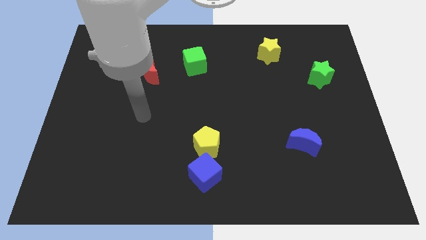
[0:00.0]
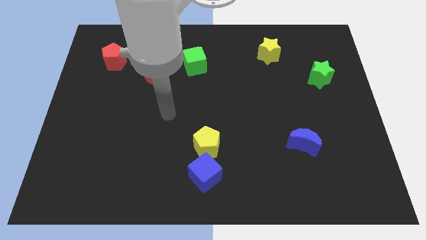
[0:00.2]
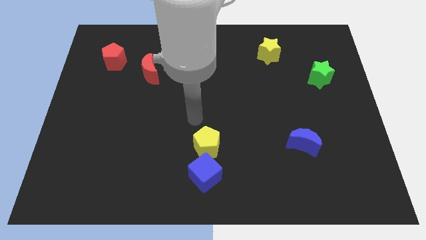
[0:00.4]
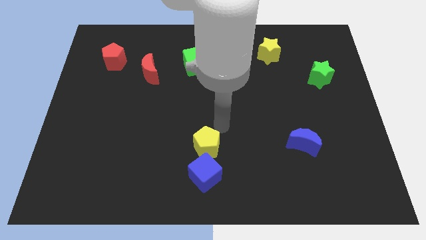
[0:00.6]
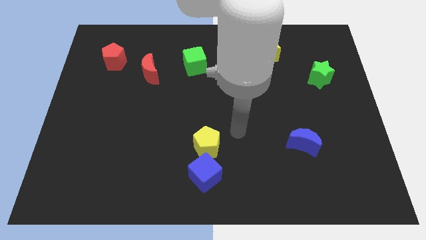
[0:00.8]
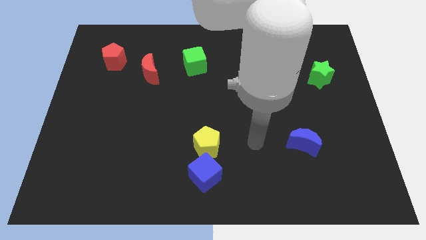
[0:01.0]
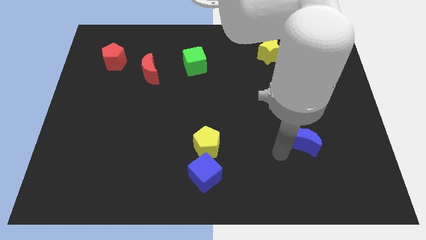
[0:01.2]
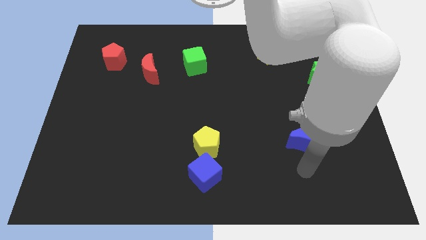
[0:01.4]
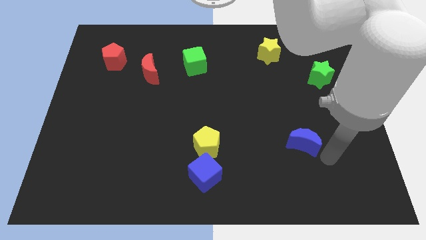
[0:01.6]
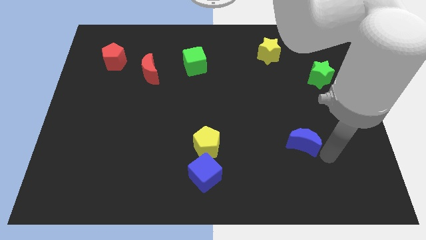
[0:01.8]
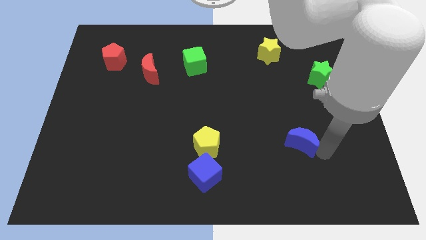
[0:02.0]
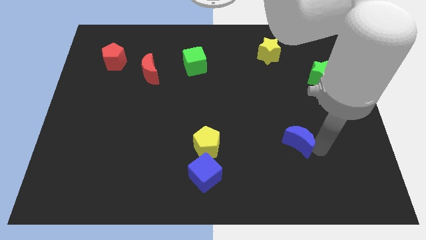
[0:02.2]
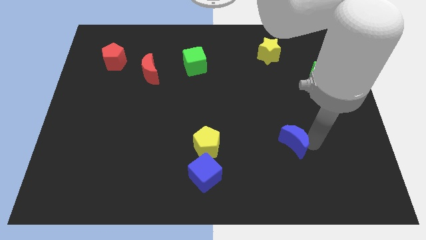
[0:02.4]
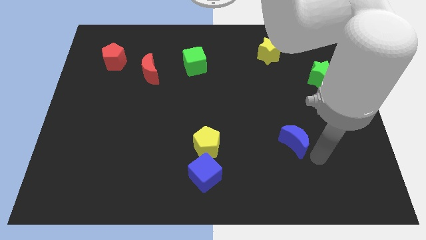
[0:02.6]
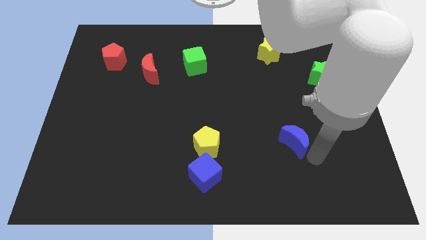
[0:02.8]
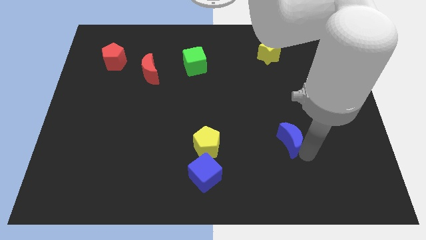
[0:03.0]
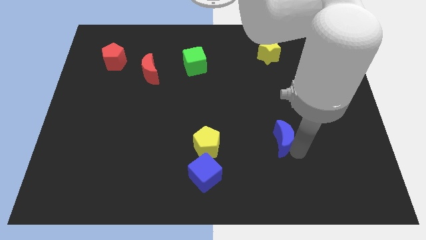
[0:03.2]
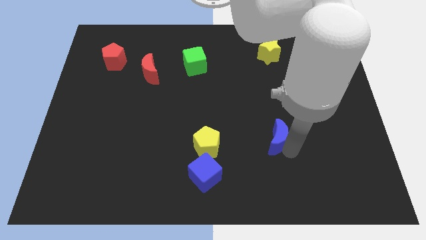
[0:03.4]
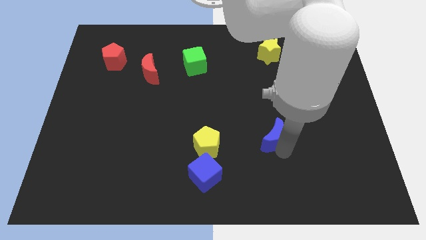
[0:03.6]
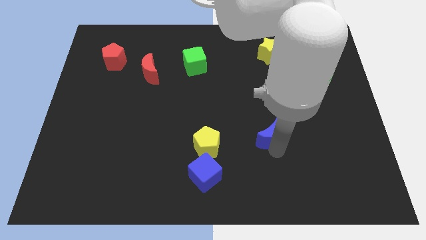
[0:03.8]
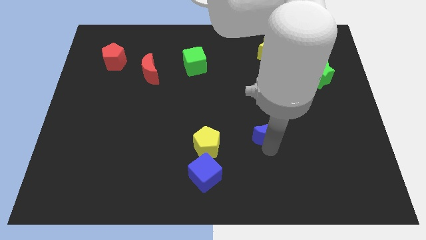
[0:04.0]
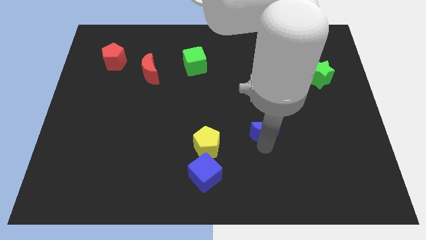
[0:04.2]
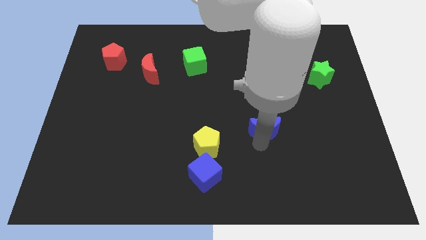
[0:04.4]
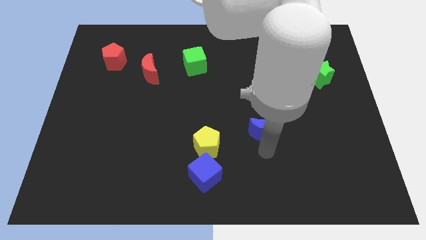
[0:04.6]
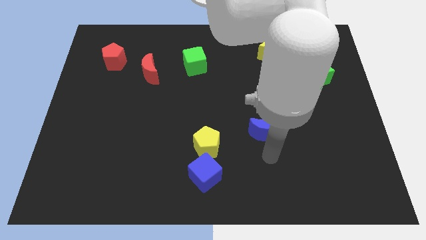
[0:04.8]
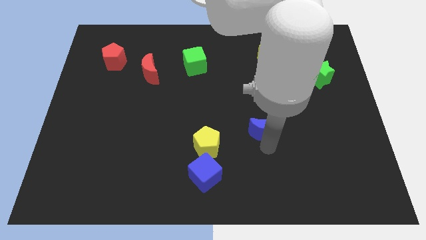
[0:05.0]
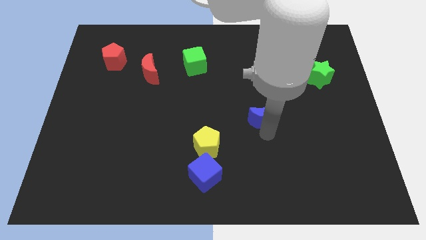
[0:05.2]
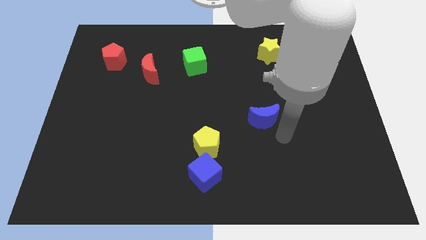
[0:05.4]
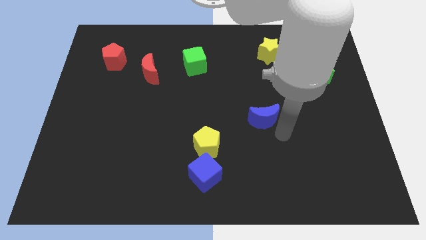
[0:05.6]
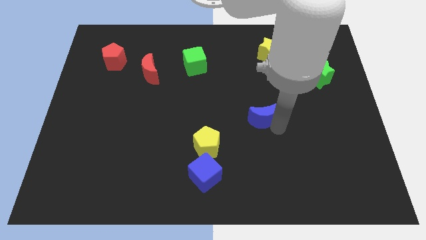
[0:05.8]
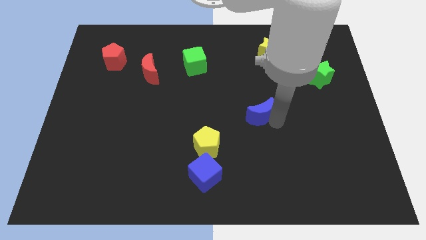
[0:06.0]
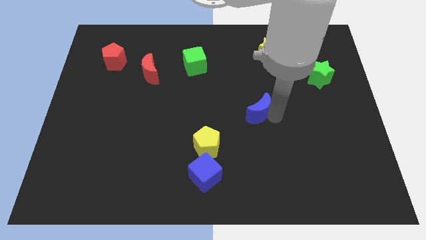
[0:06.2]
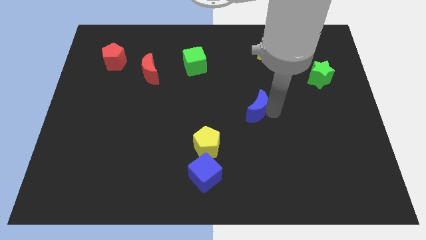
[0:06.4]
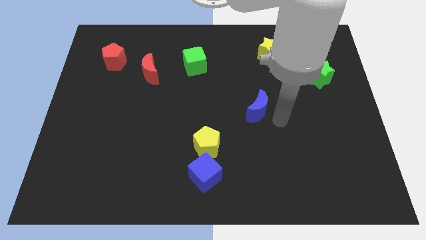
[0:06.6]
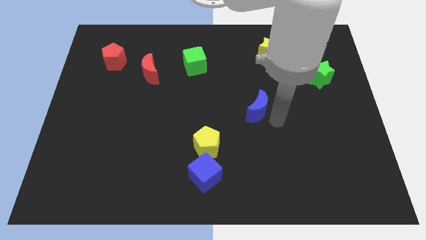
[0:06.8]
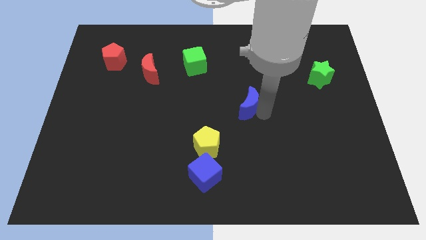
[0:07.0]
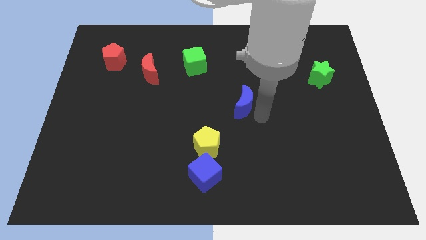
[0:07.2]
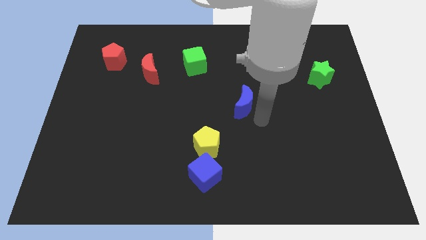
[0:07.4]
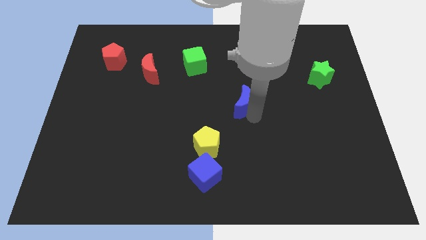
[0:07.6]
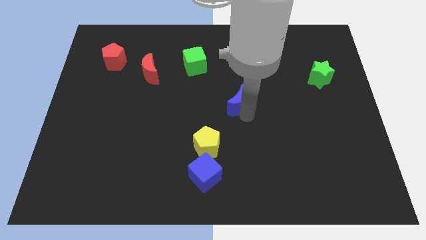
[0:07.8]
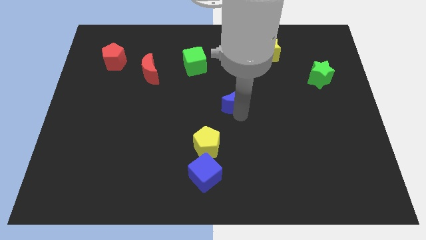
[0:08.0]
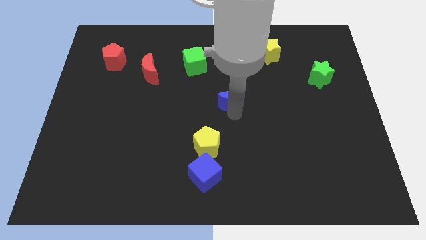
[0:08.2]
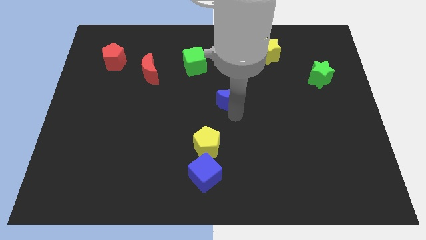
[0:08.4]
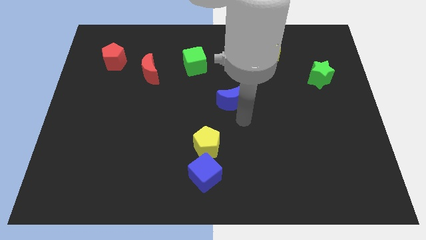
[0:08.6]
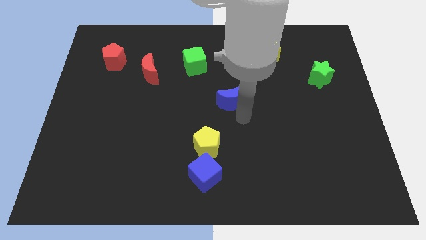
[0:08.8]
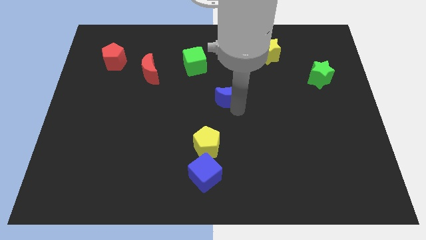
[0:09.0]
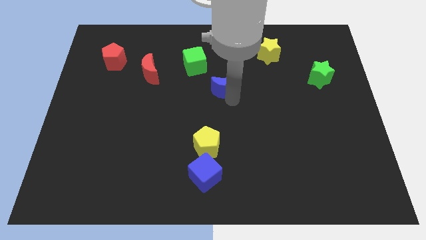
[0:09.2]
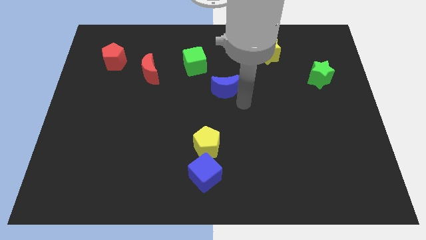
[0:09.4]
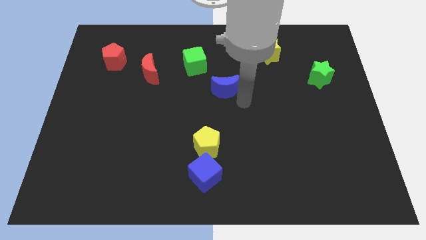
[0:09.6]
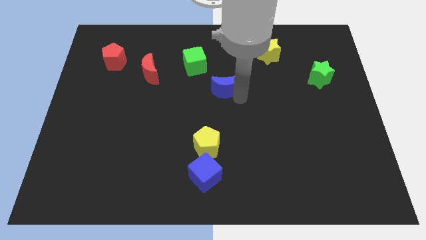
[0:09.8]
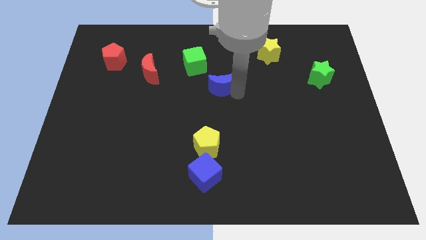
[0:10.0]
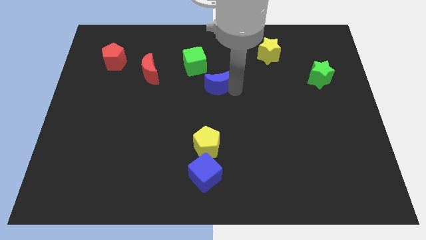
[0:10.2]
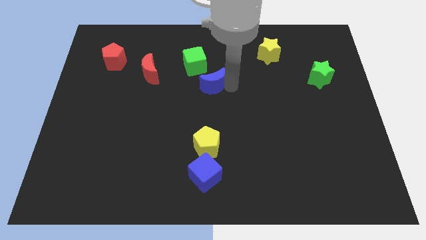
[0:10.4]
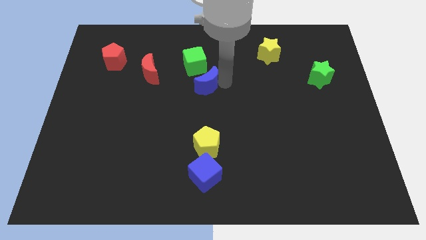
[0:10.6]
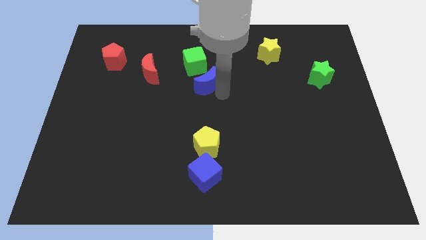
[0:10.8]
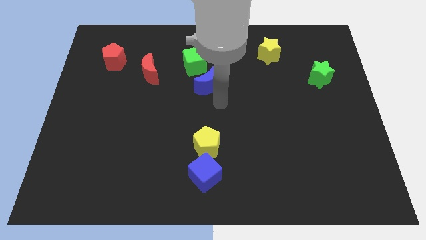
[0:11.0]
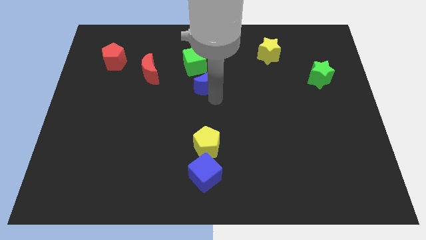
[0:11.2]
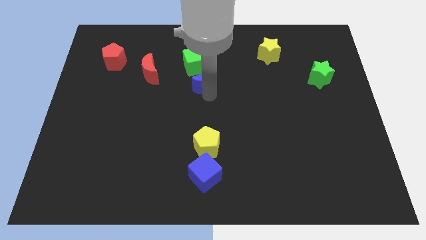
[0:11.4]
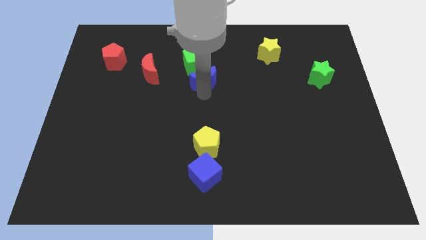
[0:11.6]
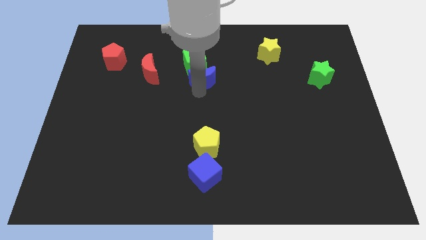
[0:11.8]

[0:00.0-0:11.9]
put the blue moon next to the green cube

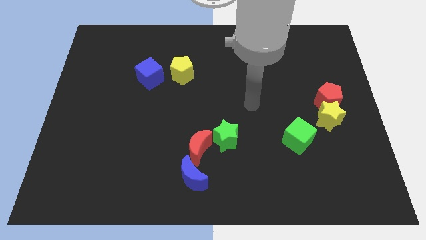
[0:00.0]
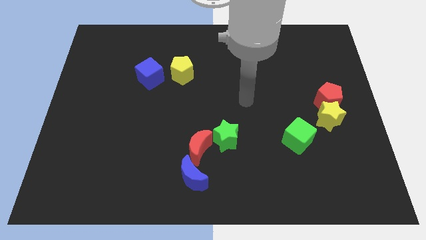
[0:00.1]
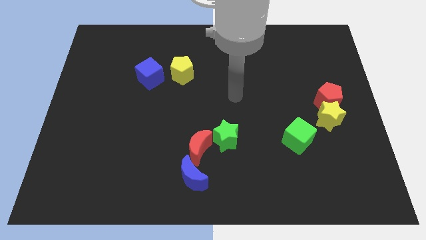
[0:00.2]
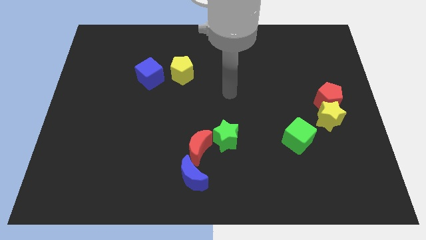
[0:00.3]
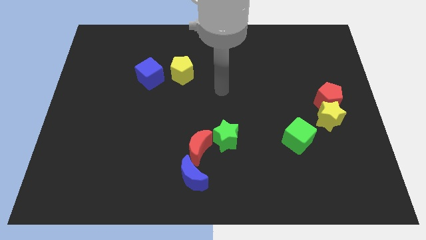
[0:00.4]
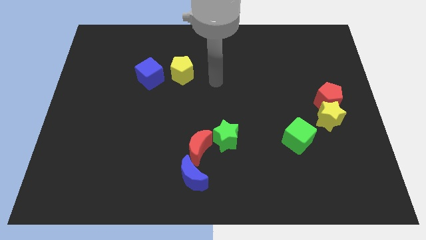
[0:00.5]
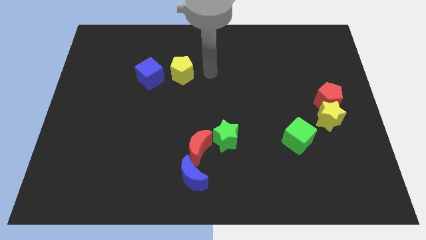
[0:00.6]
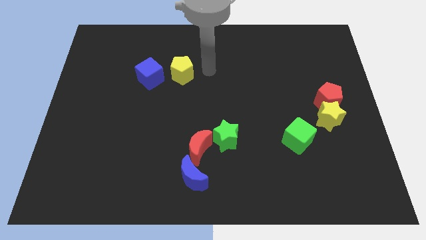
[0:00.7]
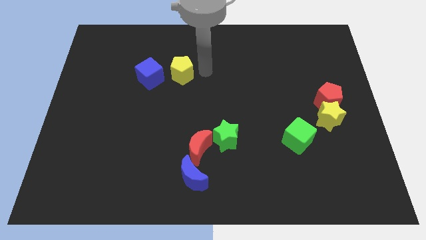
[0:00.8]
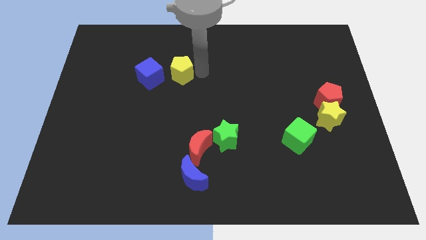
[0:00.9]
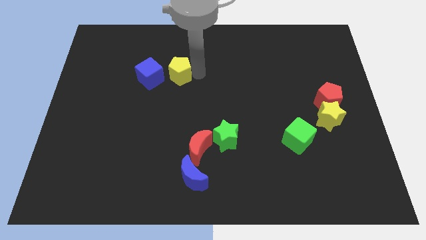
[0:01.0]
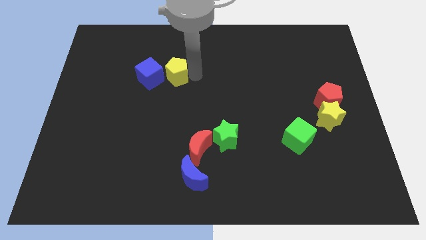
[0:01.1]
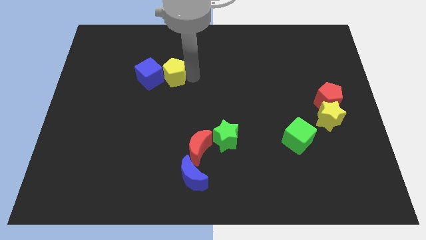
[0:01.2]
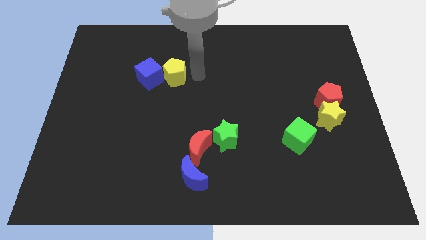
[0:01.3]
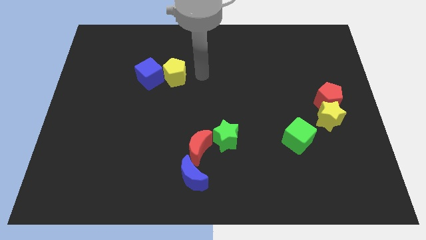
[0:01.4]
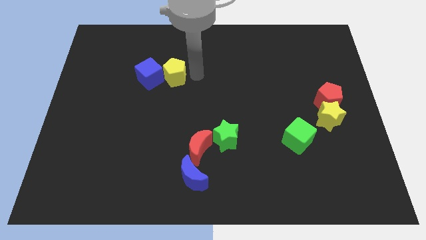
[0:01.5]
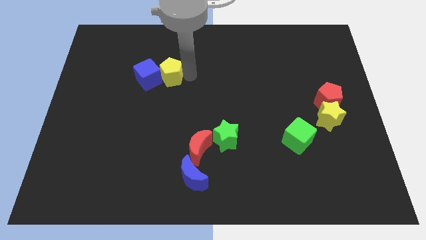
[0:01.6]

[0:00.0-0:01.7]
put the yellow pentagon close to the blue cube
